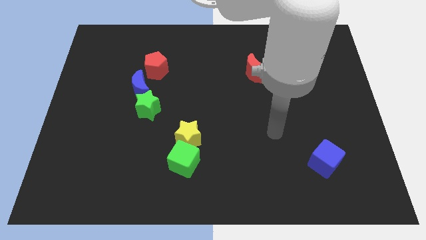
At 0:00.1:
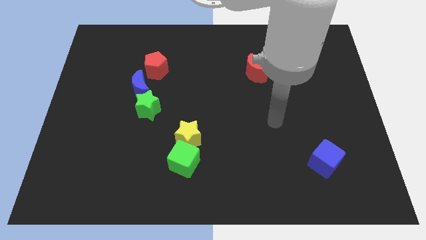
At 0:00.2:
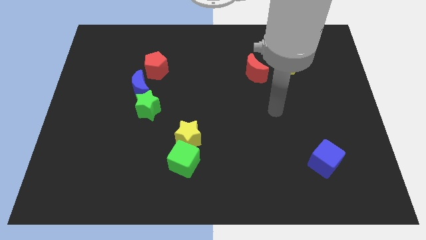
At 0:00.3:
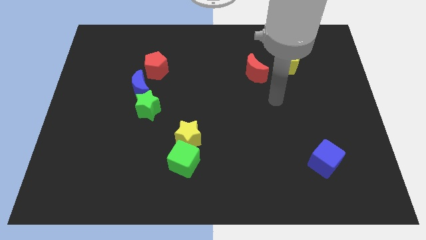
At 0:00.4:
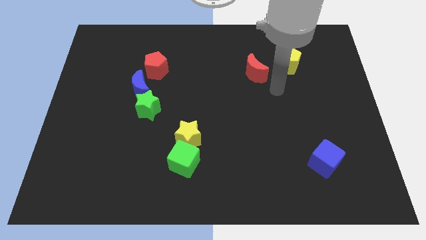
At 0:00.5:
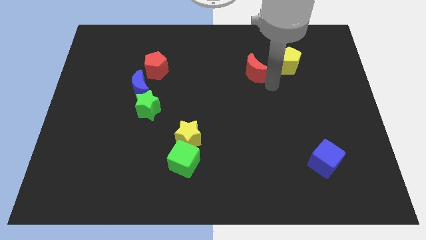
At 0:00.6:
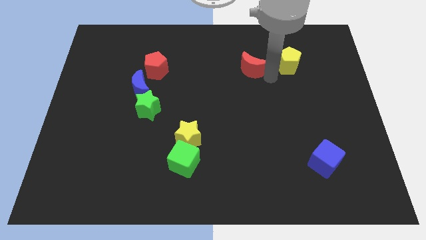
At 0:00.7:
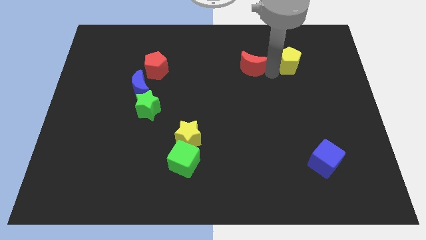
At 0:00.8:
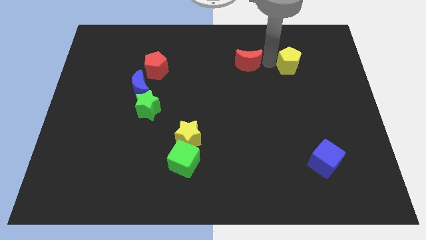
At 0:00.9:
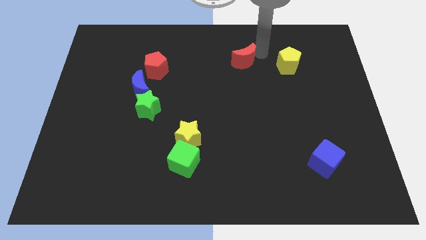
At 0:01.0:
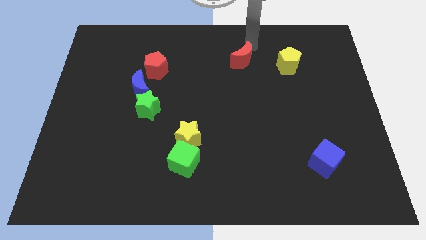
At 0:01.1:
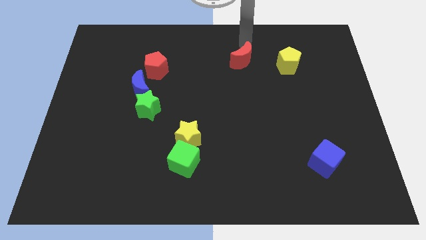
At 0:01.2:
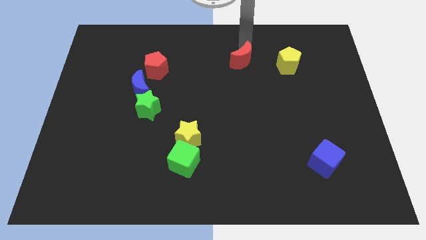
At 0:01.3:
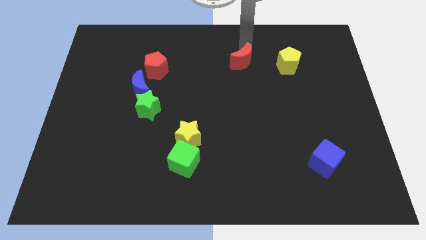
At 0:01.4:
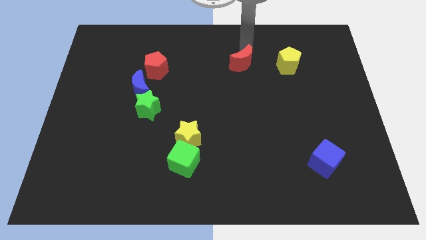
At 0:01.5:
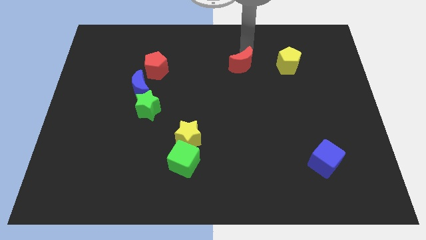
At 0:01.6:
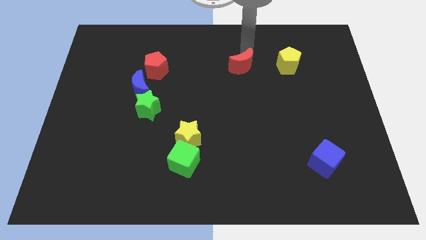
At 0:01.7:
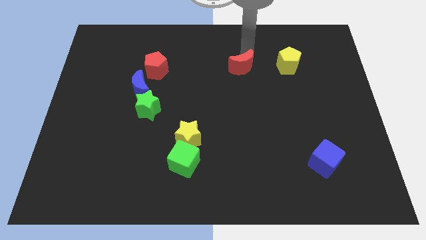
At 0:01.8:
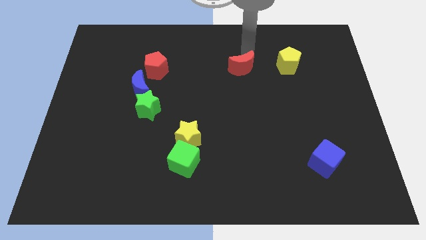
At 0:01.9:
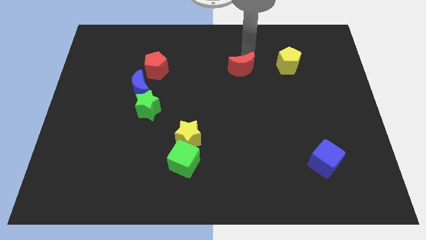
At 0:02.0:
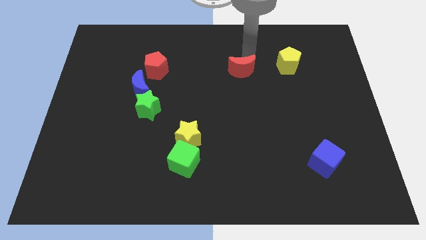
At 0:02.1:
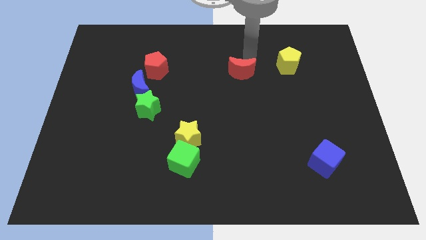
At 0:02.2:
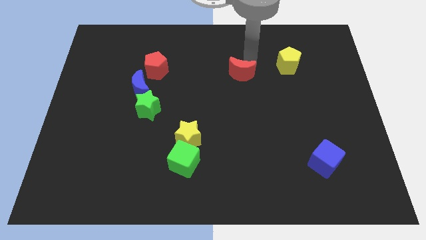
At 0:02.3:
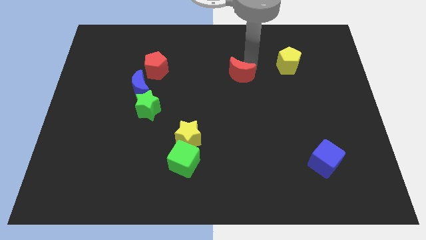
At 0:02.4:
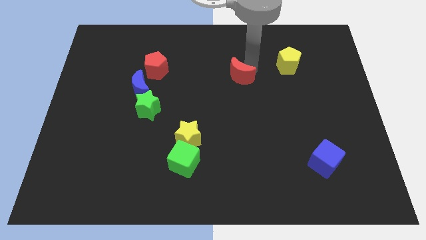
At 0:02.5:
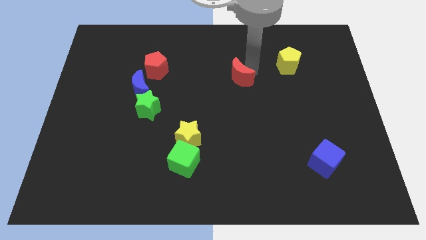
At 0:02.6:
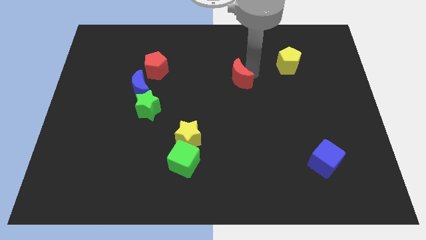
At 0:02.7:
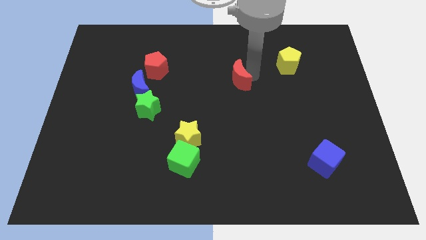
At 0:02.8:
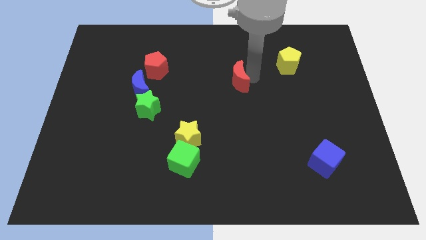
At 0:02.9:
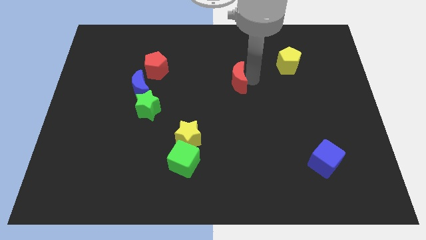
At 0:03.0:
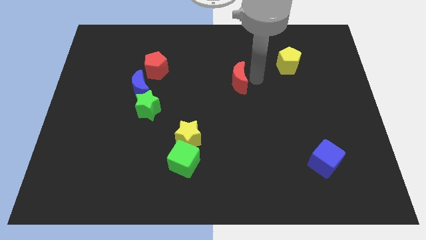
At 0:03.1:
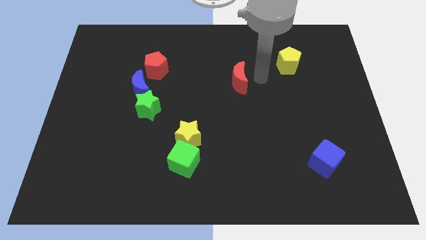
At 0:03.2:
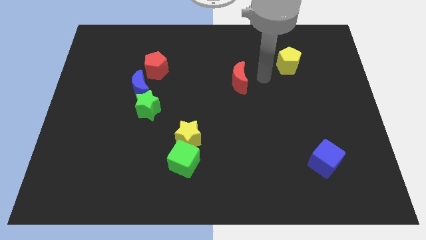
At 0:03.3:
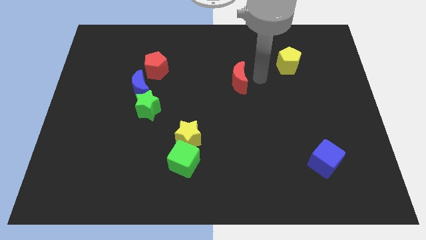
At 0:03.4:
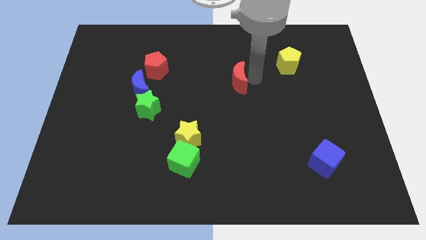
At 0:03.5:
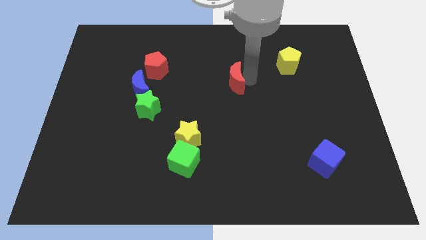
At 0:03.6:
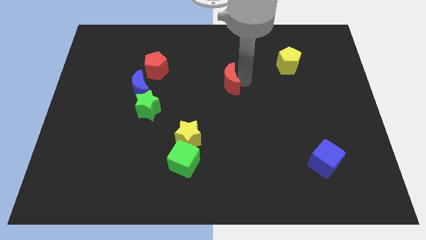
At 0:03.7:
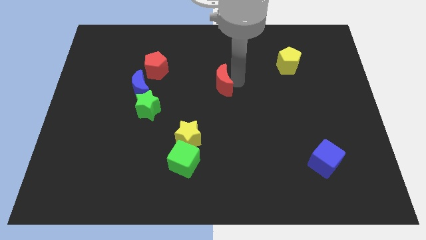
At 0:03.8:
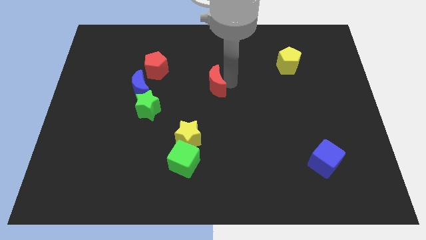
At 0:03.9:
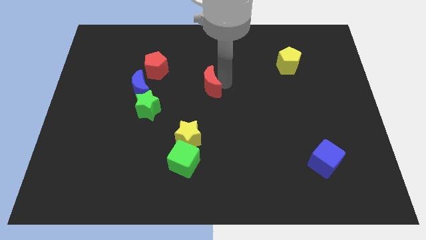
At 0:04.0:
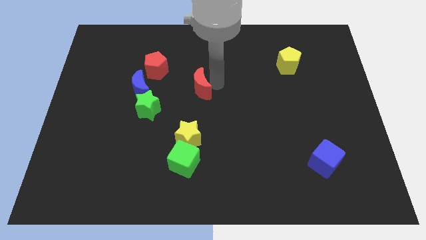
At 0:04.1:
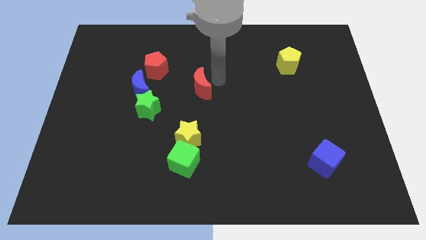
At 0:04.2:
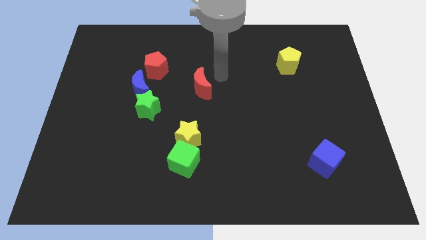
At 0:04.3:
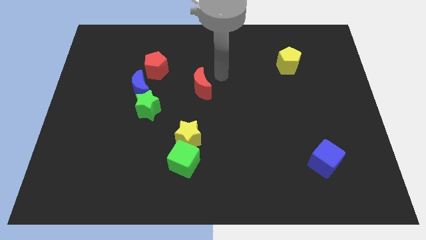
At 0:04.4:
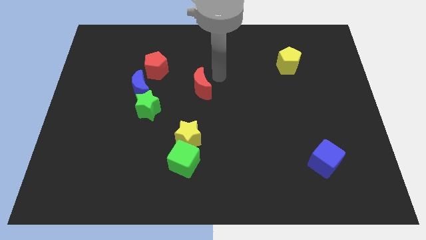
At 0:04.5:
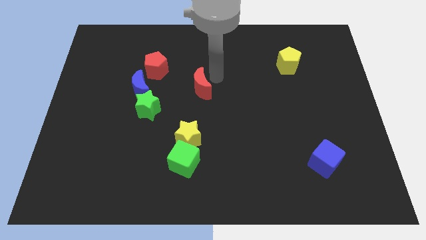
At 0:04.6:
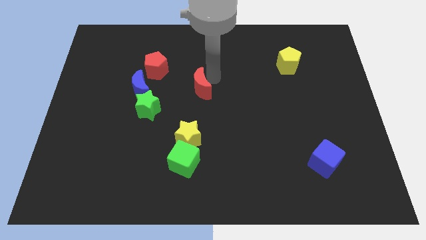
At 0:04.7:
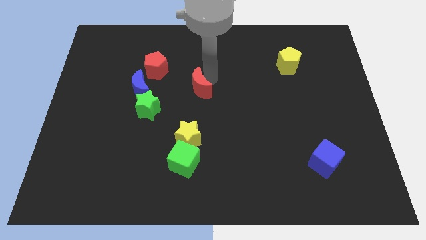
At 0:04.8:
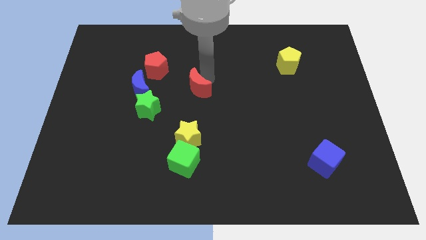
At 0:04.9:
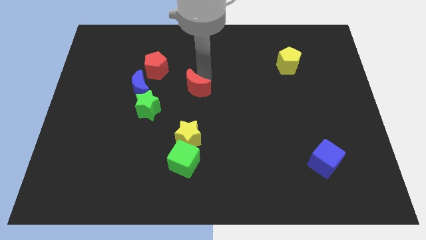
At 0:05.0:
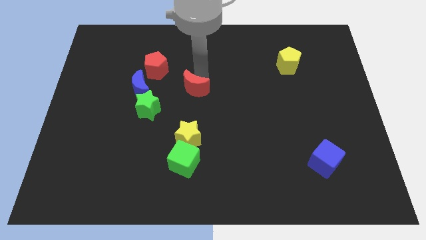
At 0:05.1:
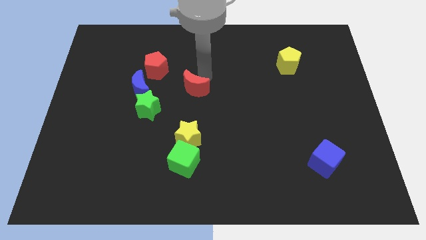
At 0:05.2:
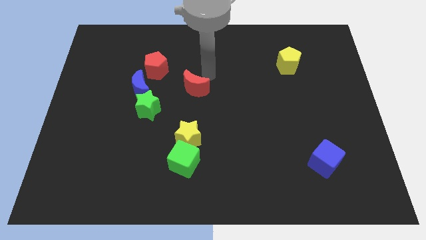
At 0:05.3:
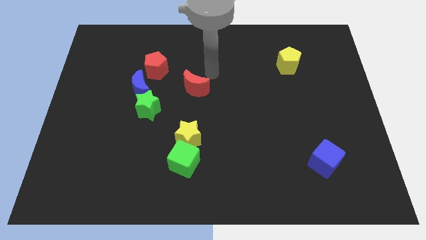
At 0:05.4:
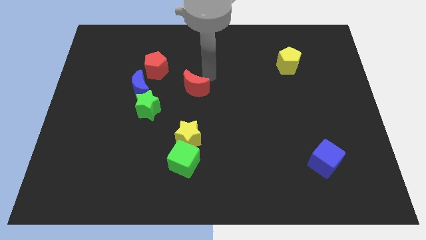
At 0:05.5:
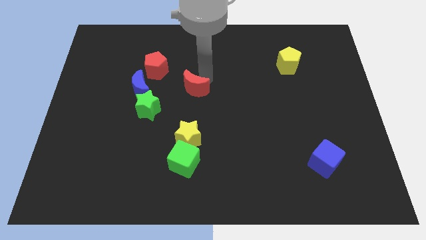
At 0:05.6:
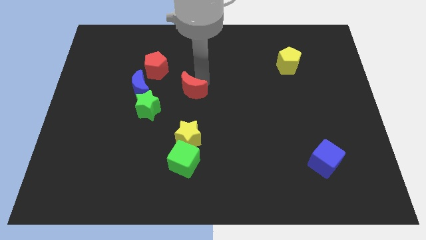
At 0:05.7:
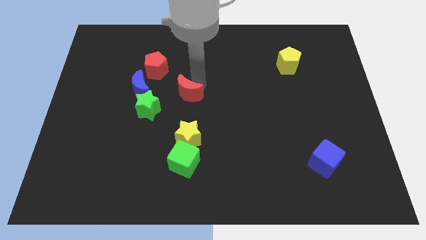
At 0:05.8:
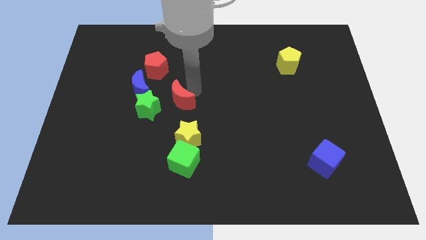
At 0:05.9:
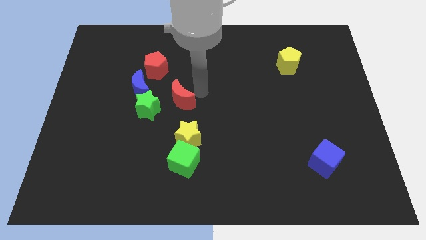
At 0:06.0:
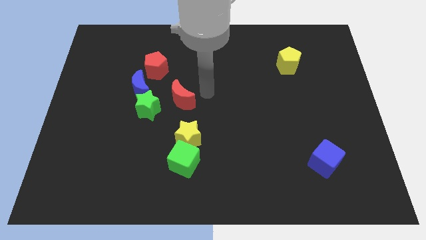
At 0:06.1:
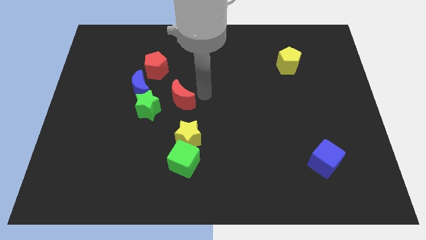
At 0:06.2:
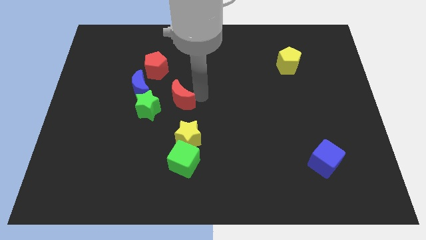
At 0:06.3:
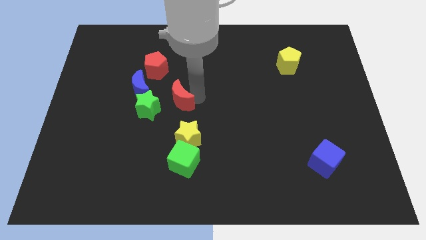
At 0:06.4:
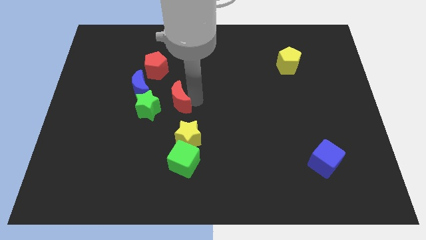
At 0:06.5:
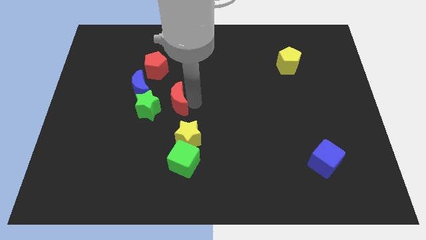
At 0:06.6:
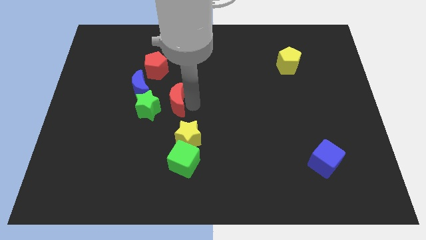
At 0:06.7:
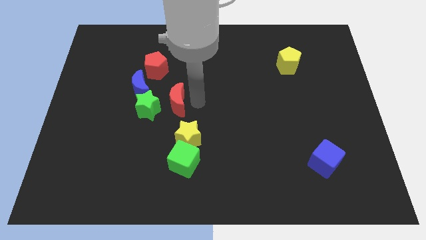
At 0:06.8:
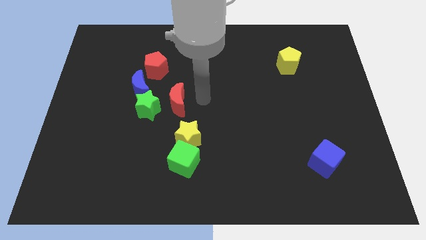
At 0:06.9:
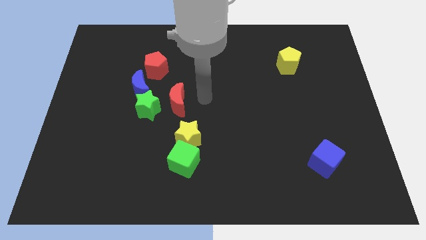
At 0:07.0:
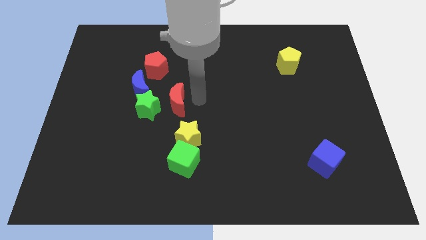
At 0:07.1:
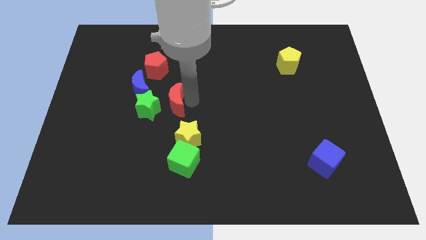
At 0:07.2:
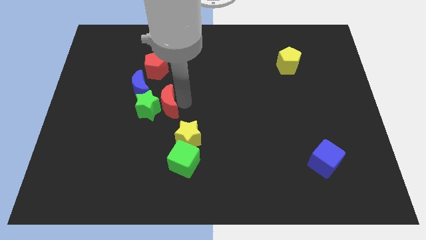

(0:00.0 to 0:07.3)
push the red moon next to the green star
